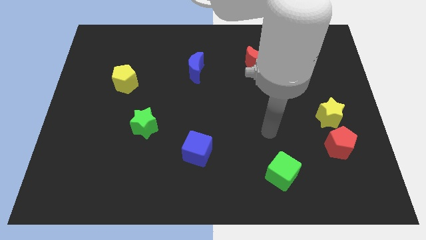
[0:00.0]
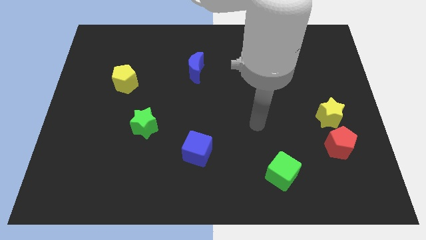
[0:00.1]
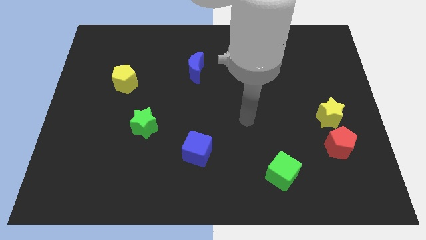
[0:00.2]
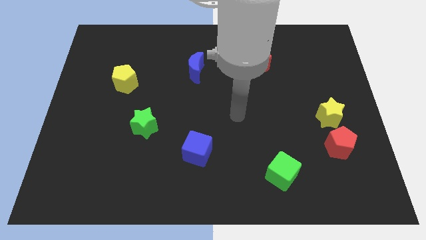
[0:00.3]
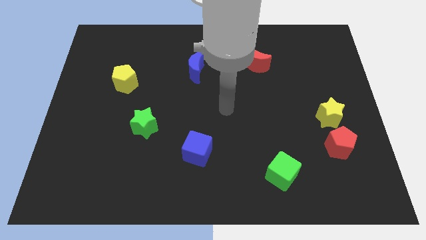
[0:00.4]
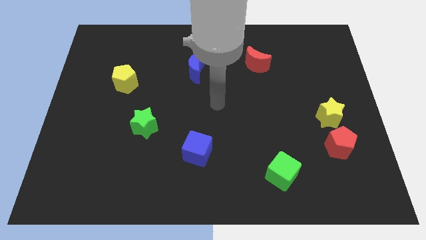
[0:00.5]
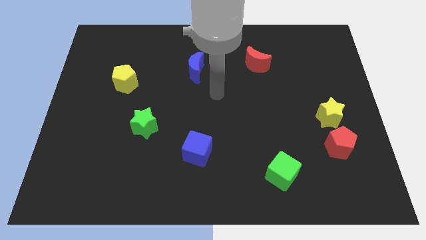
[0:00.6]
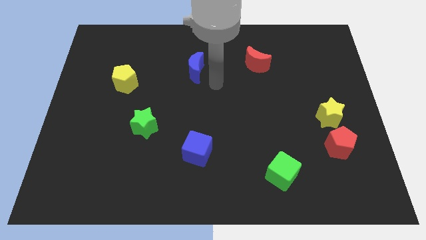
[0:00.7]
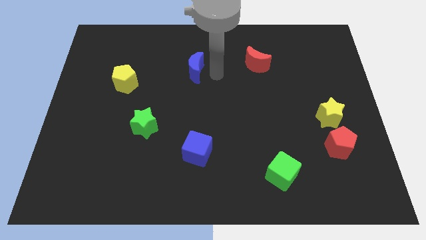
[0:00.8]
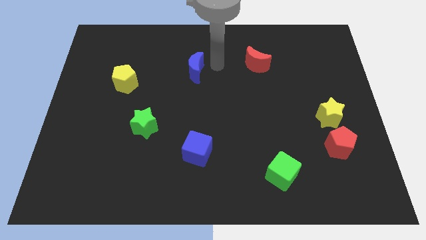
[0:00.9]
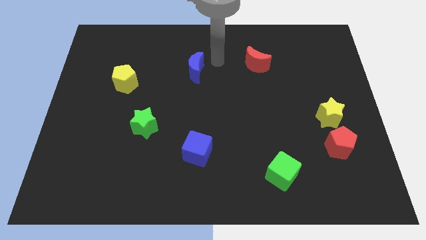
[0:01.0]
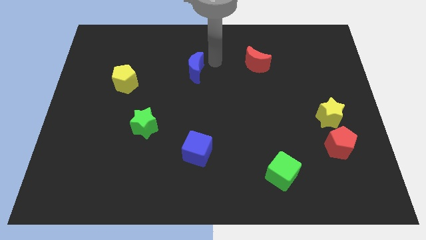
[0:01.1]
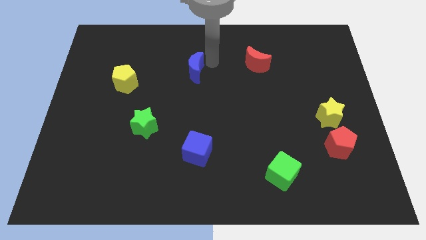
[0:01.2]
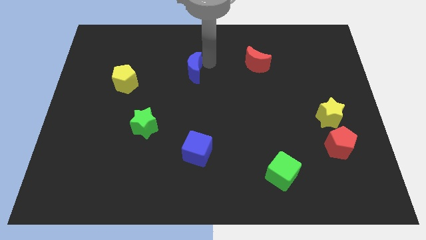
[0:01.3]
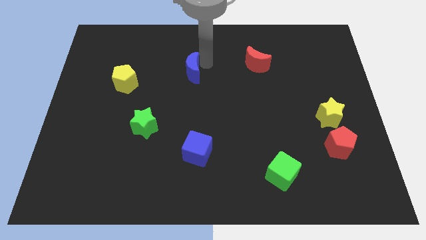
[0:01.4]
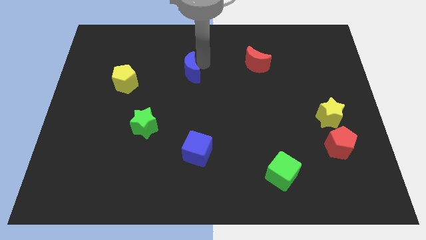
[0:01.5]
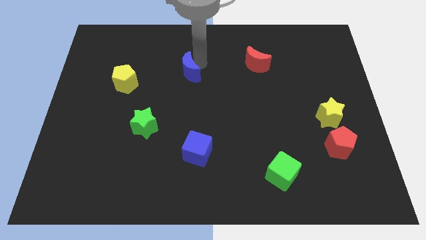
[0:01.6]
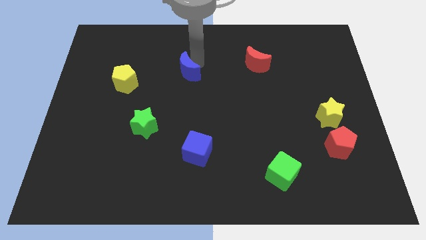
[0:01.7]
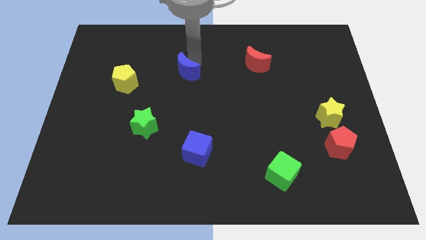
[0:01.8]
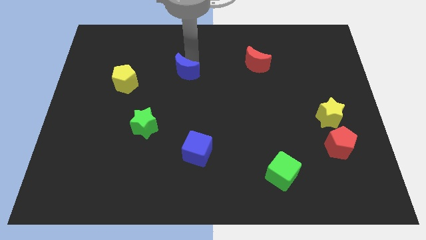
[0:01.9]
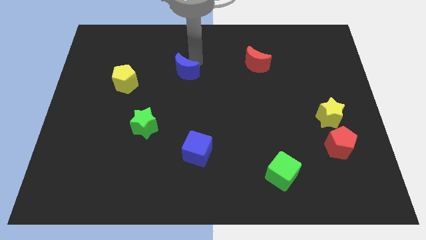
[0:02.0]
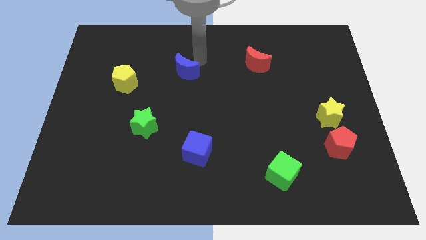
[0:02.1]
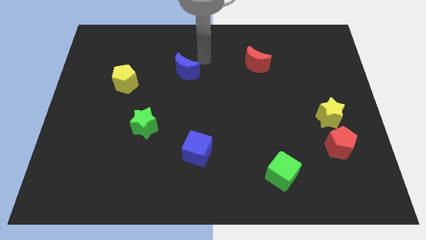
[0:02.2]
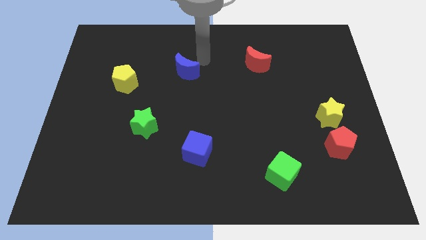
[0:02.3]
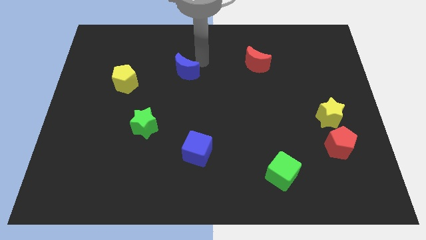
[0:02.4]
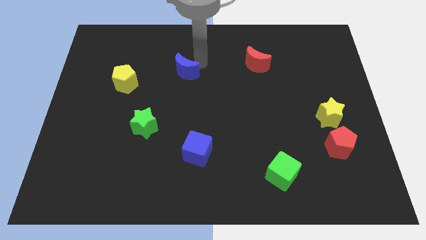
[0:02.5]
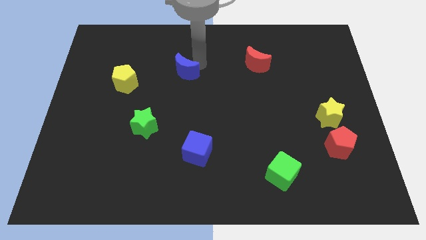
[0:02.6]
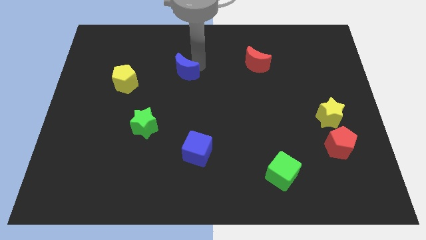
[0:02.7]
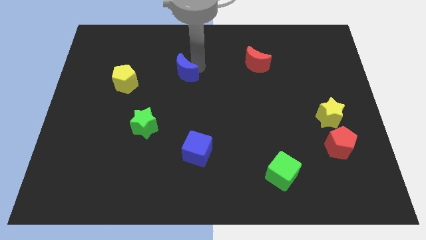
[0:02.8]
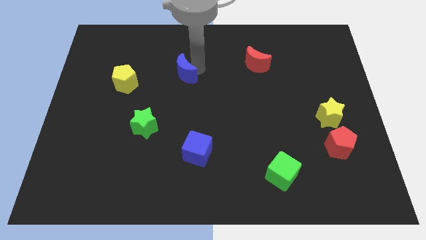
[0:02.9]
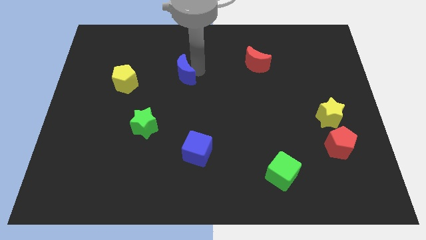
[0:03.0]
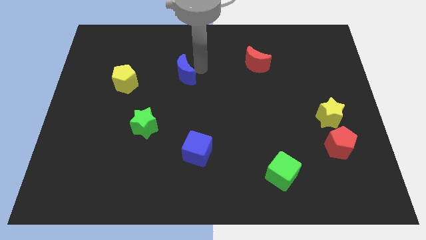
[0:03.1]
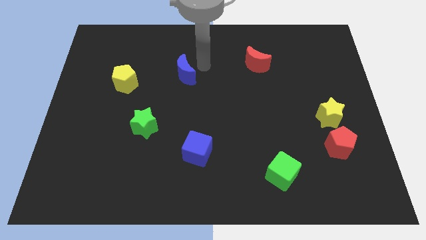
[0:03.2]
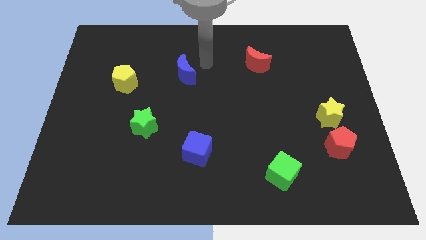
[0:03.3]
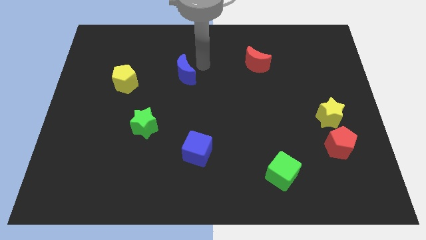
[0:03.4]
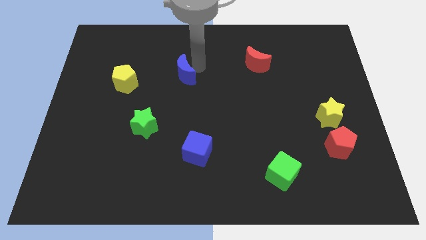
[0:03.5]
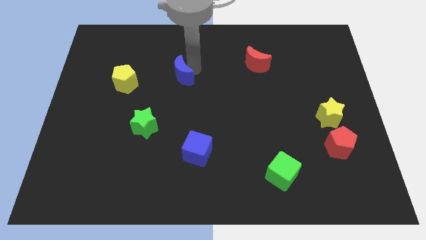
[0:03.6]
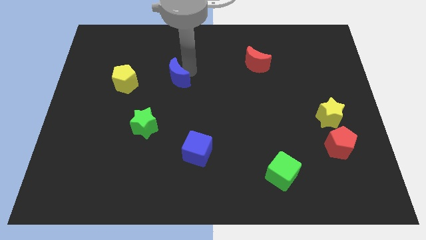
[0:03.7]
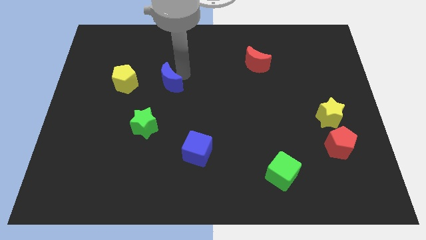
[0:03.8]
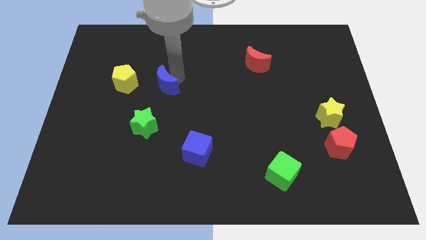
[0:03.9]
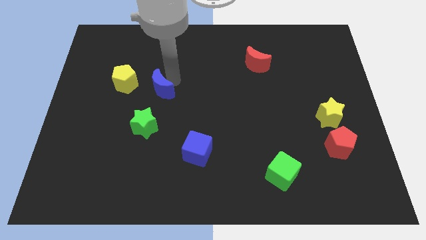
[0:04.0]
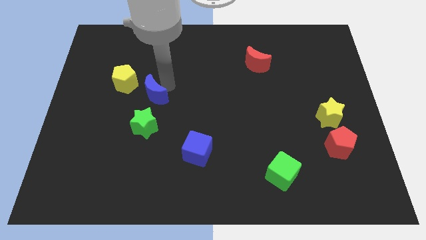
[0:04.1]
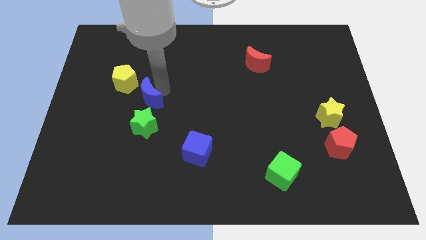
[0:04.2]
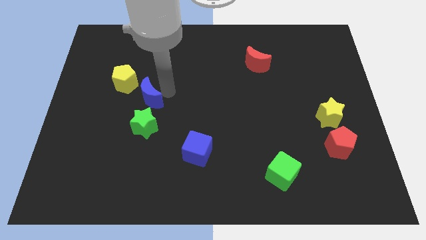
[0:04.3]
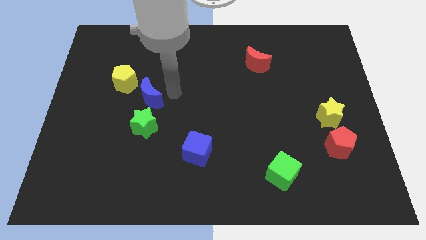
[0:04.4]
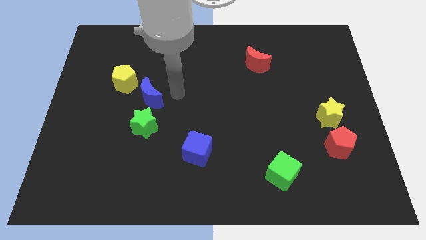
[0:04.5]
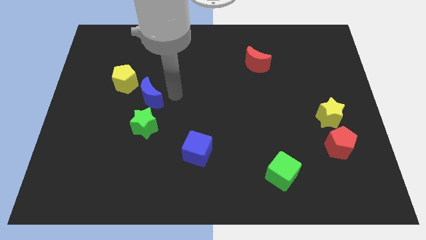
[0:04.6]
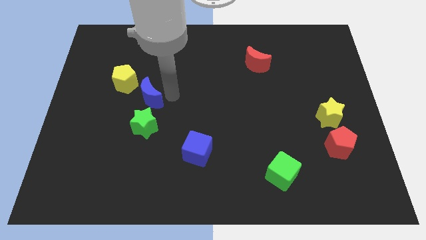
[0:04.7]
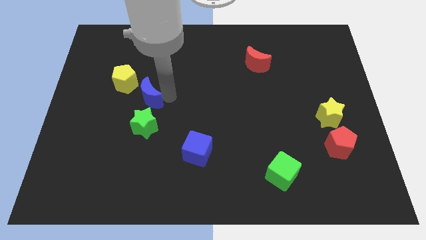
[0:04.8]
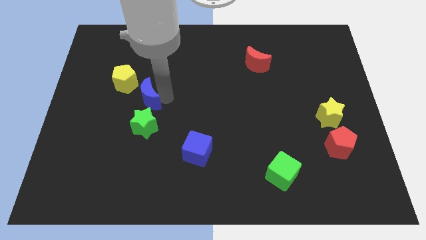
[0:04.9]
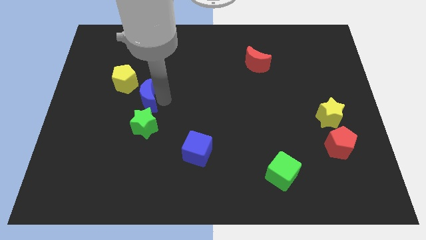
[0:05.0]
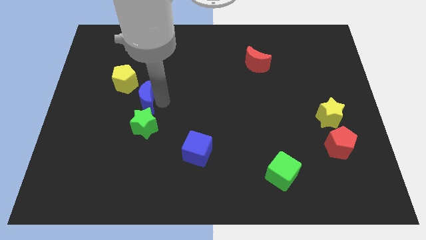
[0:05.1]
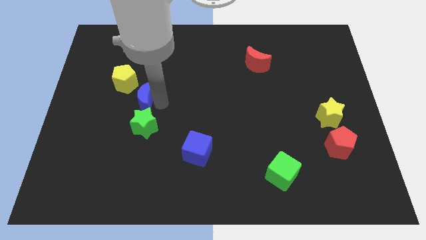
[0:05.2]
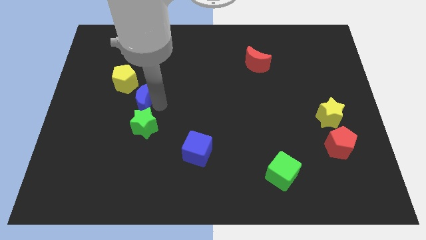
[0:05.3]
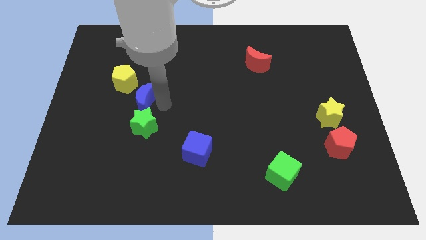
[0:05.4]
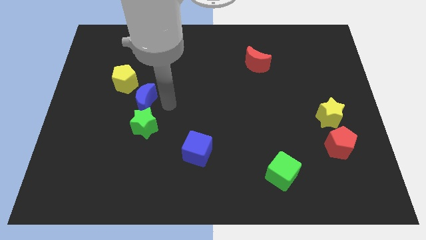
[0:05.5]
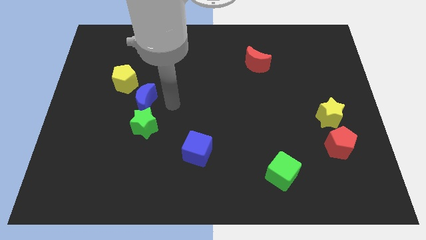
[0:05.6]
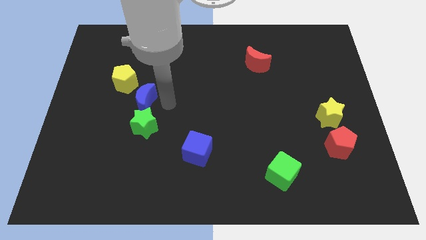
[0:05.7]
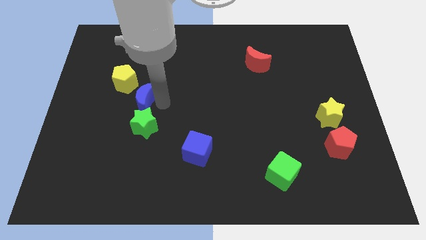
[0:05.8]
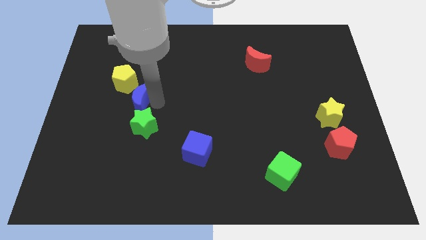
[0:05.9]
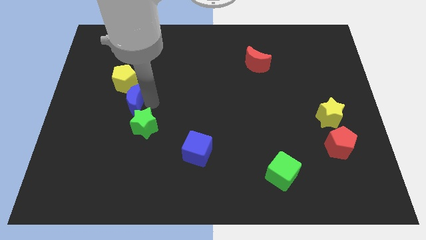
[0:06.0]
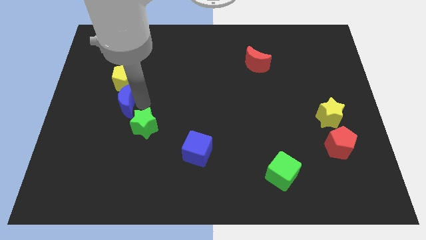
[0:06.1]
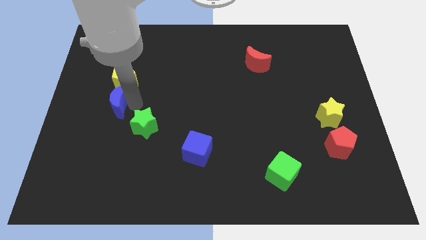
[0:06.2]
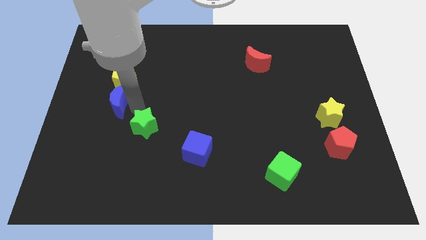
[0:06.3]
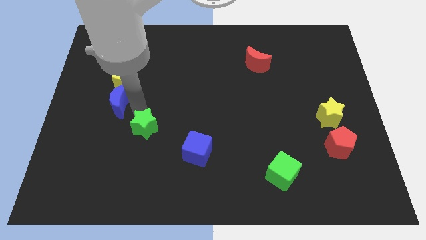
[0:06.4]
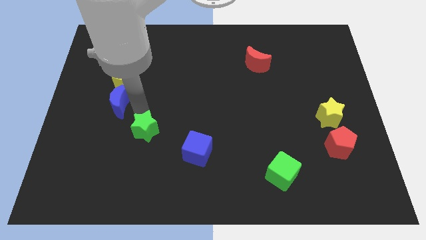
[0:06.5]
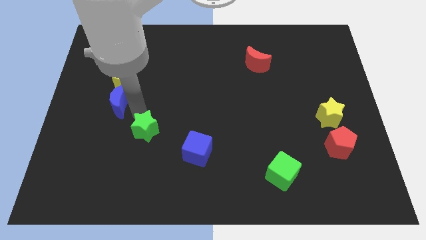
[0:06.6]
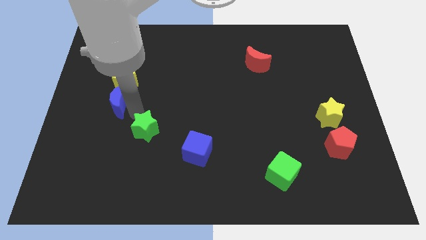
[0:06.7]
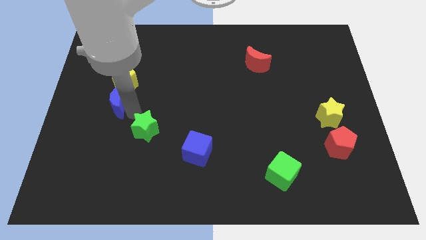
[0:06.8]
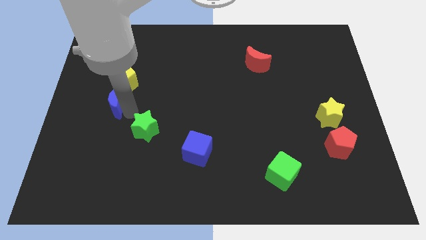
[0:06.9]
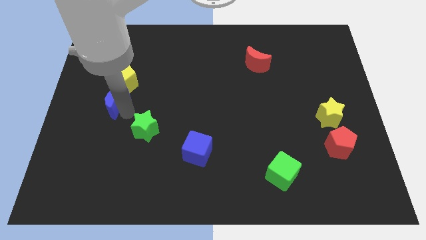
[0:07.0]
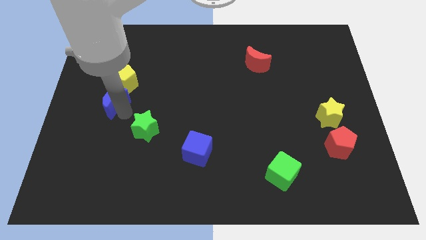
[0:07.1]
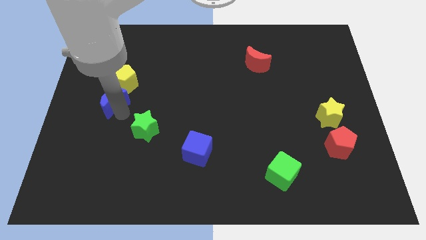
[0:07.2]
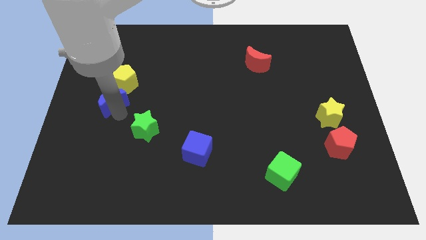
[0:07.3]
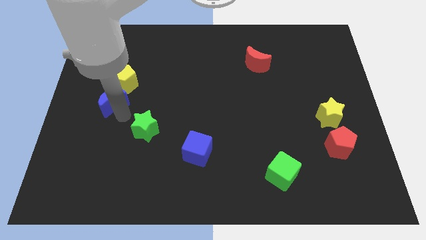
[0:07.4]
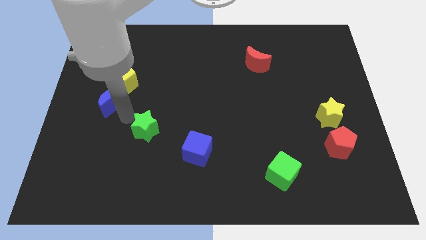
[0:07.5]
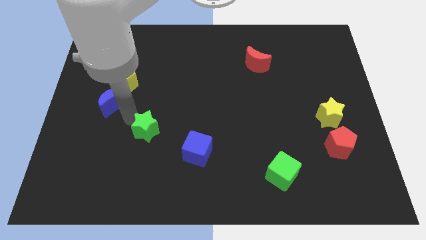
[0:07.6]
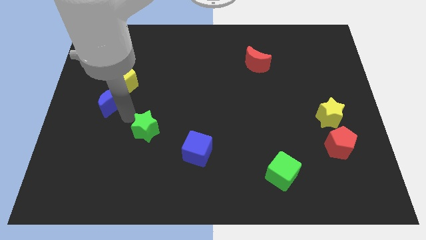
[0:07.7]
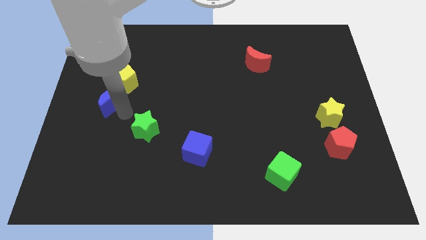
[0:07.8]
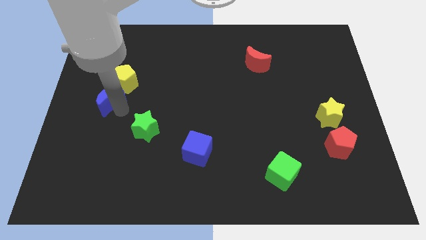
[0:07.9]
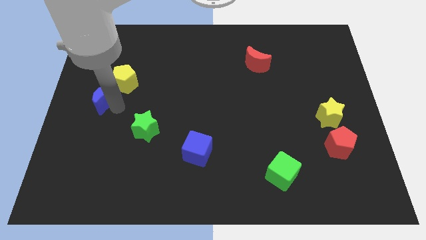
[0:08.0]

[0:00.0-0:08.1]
move the blue moon to the center left
